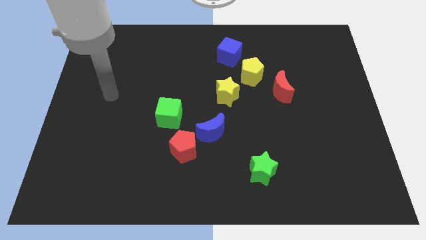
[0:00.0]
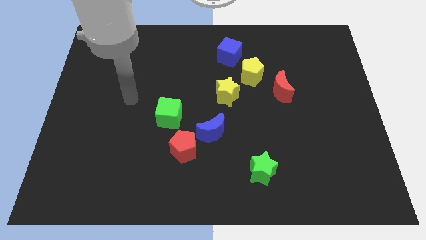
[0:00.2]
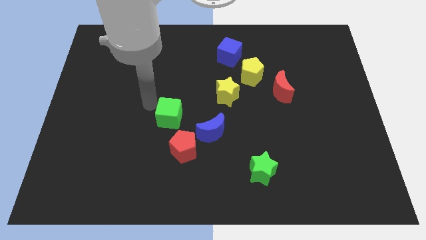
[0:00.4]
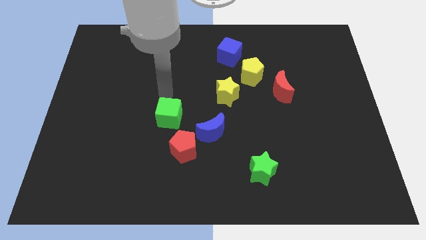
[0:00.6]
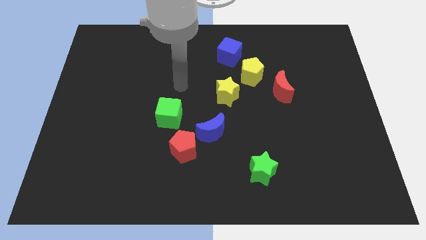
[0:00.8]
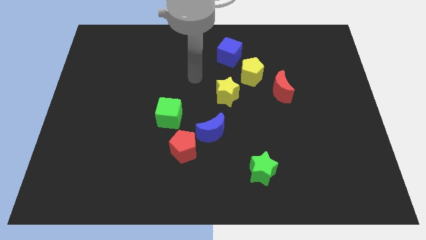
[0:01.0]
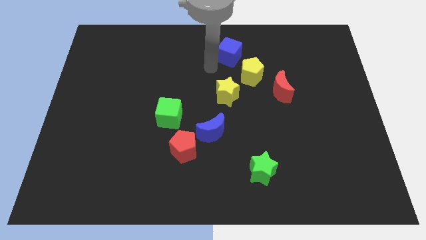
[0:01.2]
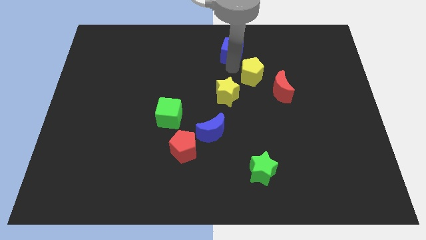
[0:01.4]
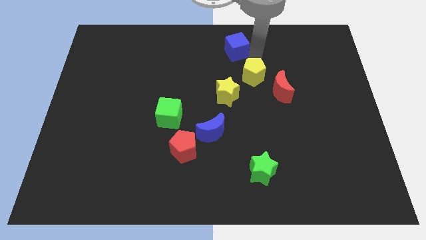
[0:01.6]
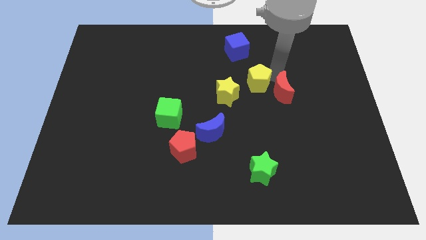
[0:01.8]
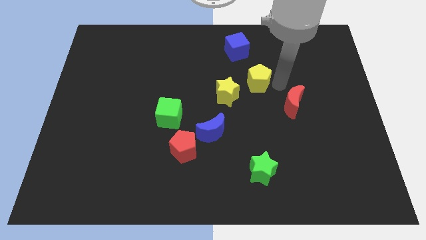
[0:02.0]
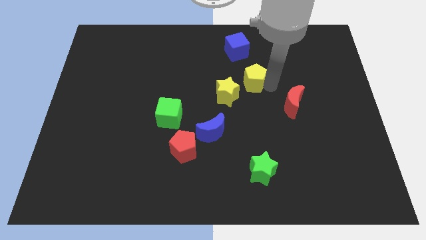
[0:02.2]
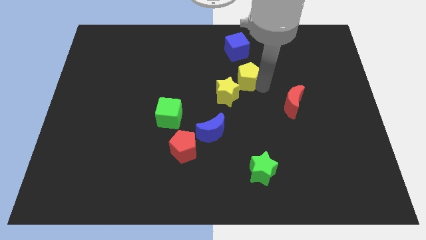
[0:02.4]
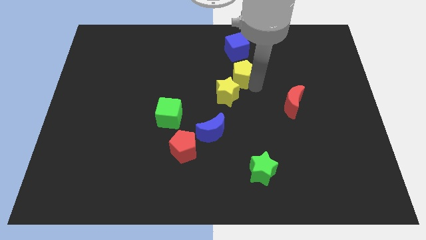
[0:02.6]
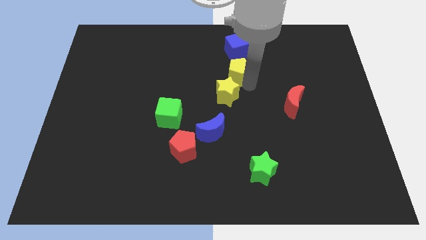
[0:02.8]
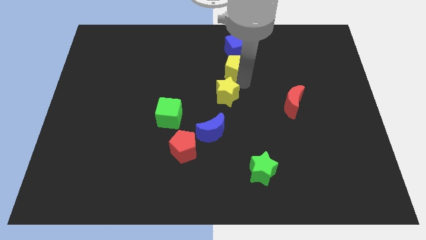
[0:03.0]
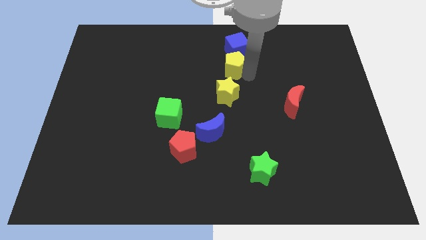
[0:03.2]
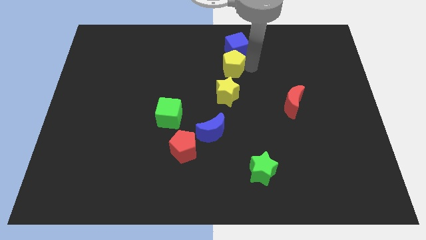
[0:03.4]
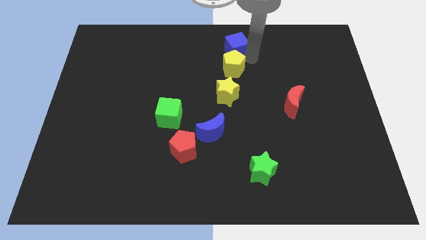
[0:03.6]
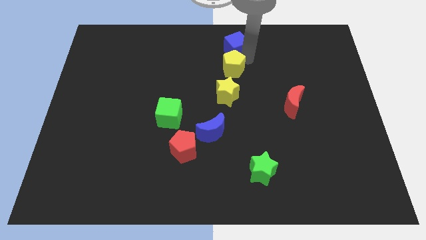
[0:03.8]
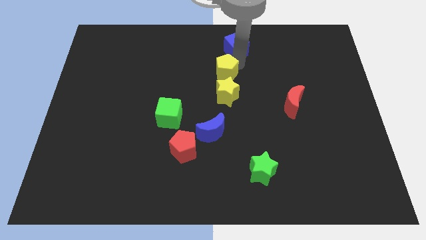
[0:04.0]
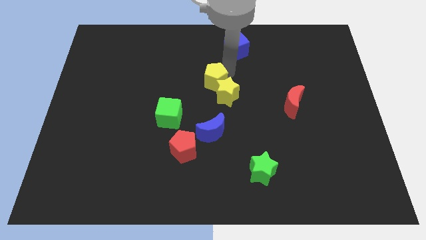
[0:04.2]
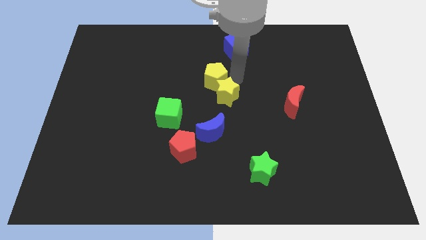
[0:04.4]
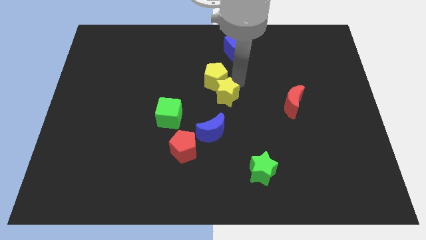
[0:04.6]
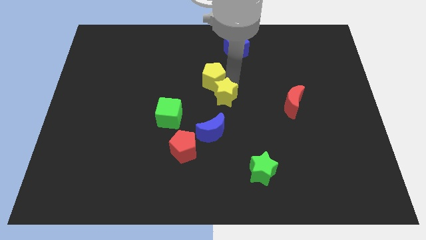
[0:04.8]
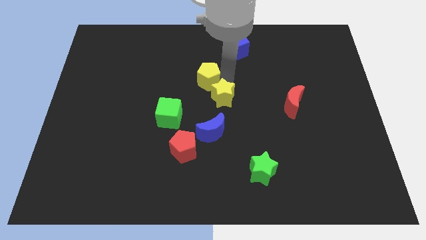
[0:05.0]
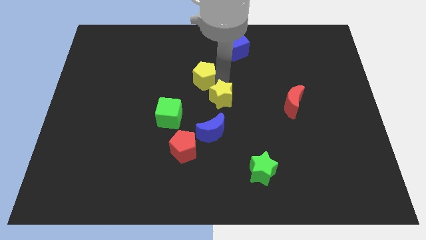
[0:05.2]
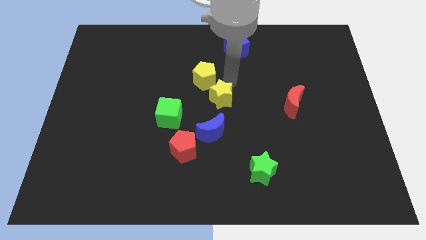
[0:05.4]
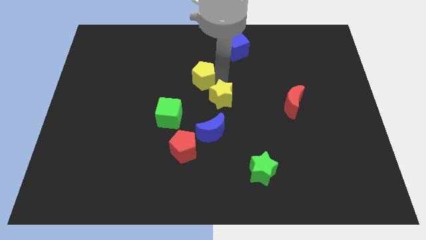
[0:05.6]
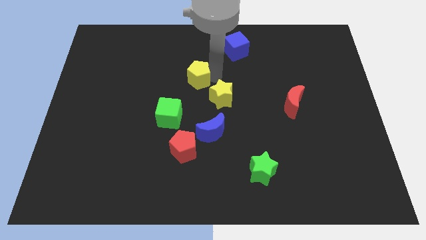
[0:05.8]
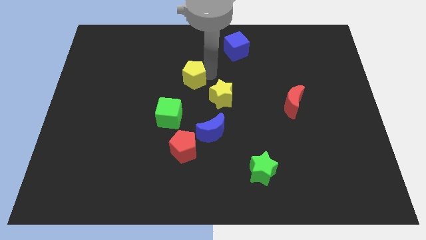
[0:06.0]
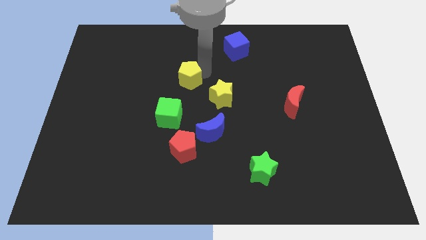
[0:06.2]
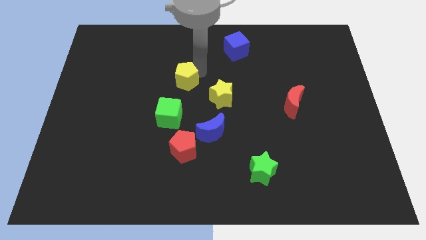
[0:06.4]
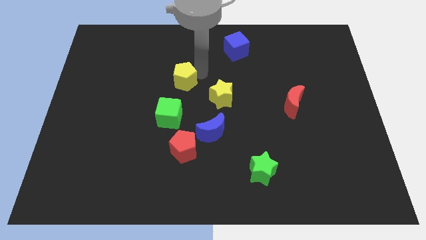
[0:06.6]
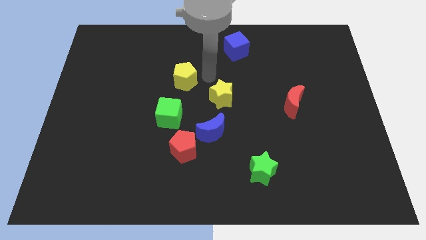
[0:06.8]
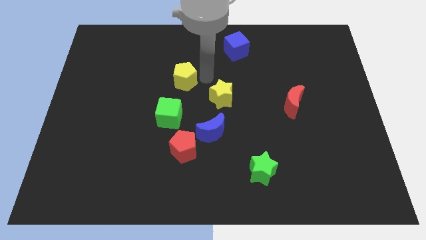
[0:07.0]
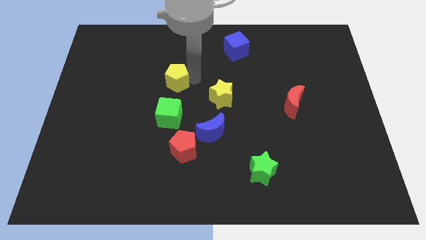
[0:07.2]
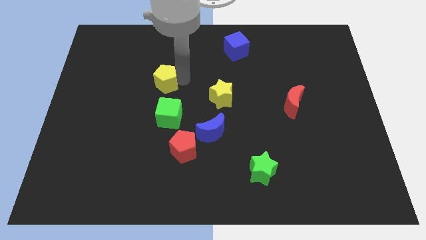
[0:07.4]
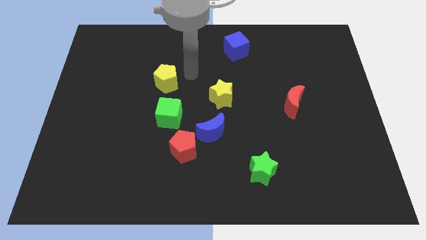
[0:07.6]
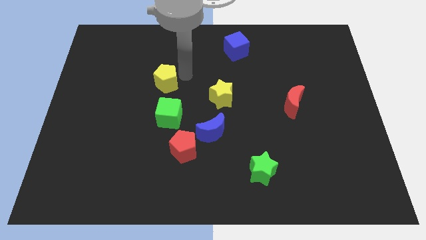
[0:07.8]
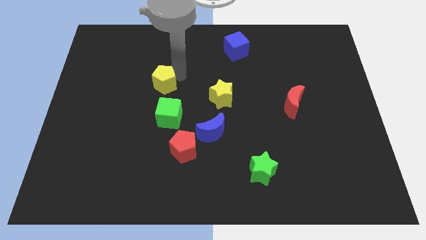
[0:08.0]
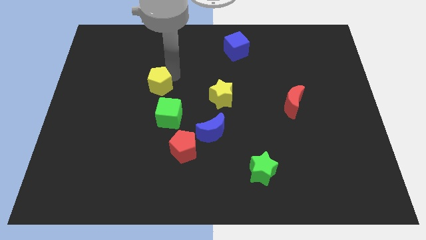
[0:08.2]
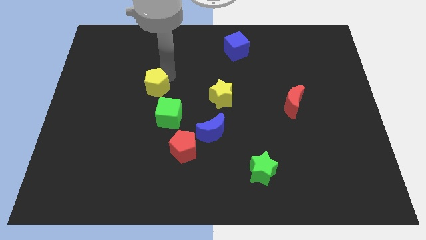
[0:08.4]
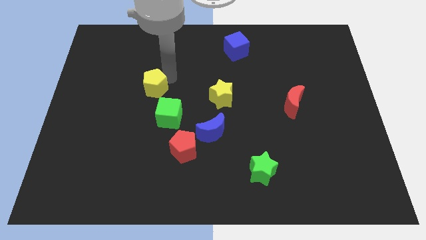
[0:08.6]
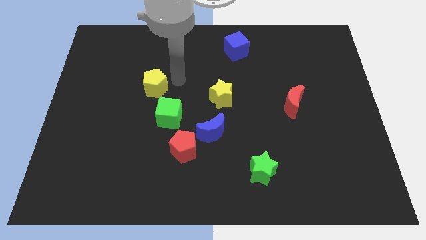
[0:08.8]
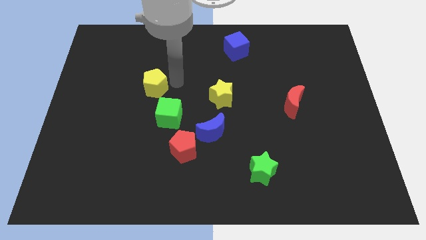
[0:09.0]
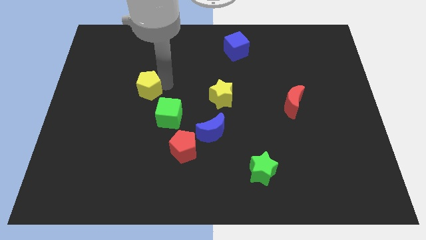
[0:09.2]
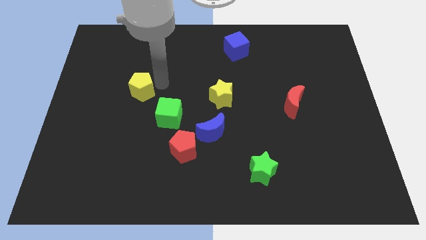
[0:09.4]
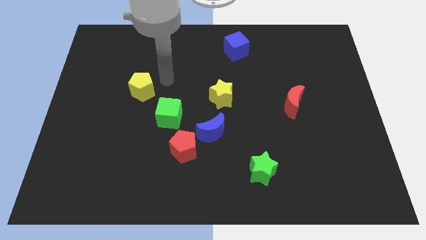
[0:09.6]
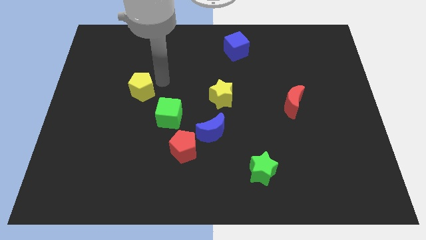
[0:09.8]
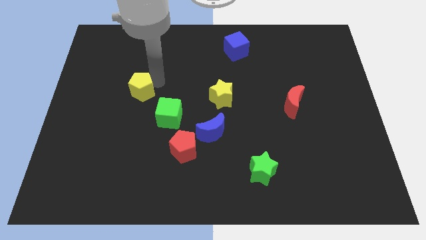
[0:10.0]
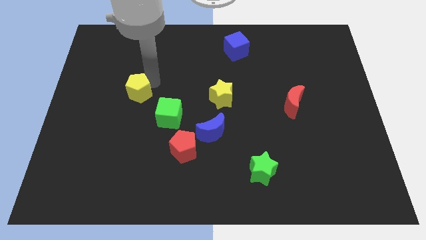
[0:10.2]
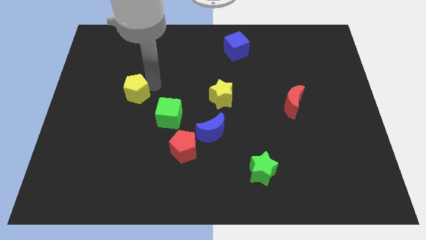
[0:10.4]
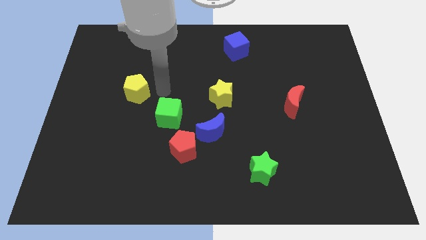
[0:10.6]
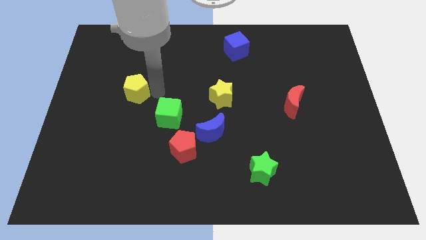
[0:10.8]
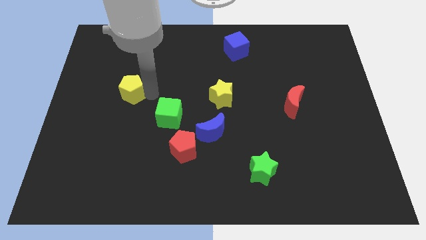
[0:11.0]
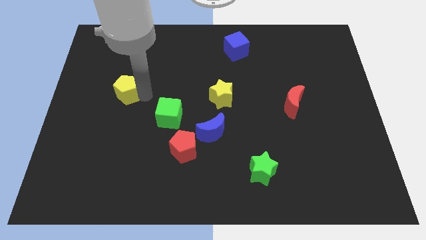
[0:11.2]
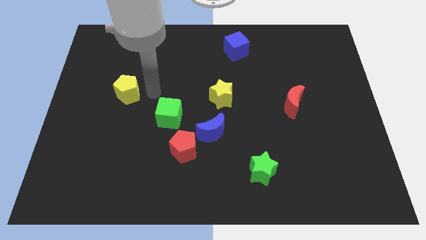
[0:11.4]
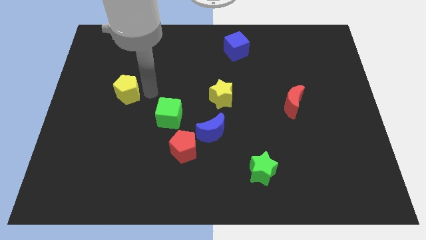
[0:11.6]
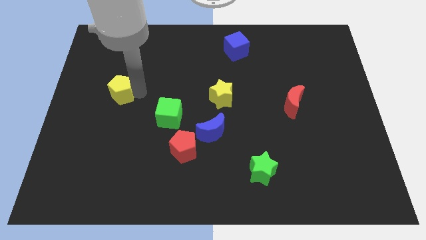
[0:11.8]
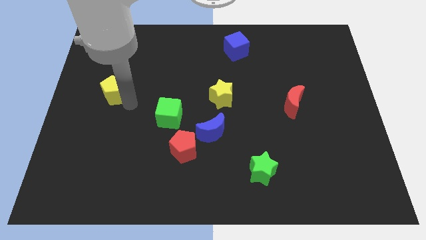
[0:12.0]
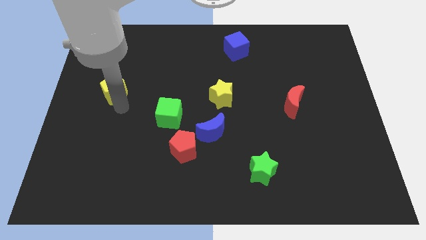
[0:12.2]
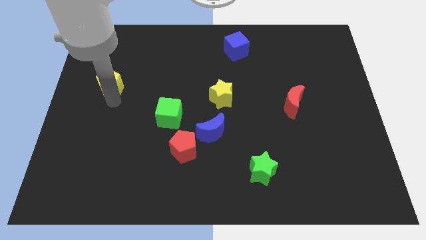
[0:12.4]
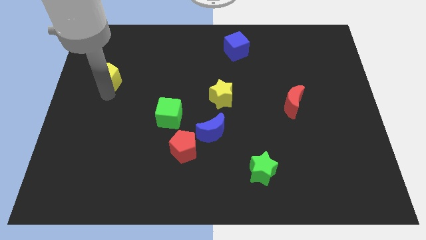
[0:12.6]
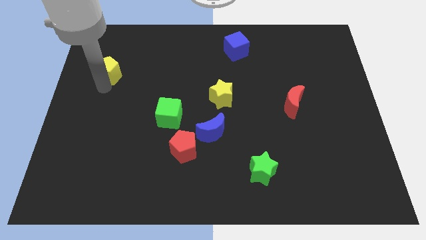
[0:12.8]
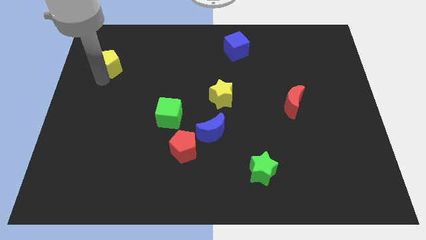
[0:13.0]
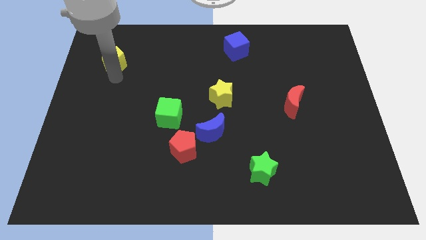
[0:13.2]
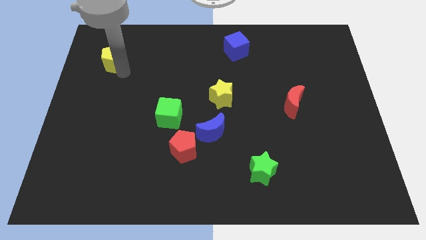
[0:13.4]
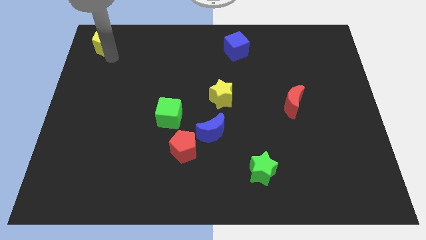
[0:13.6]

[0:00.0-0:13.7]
put the yellow pentagon to the top left
